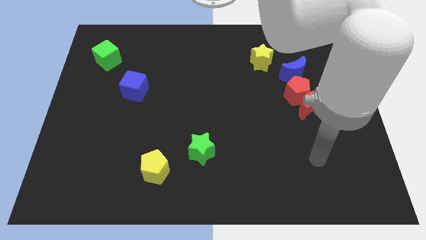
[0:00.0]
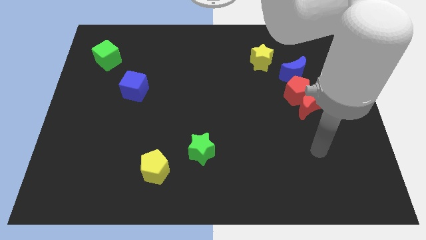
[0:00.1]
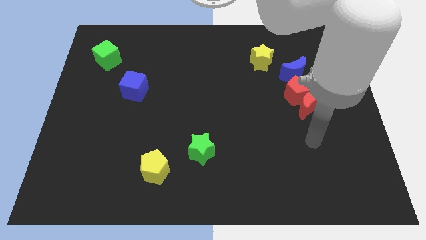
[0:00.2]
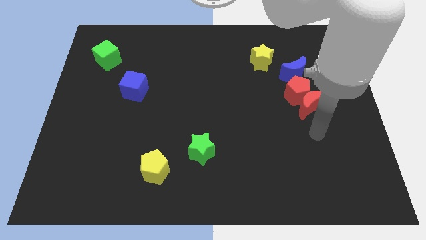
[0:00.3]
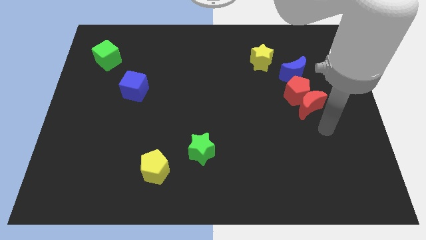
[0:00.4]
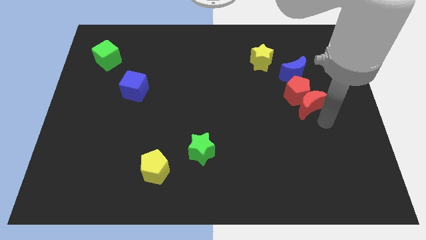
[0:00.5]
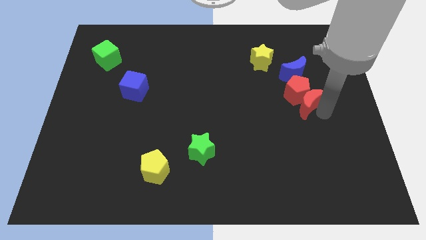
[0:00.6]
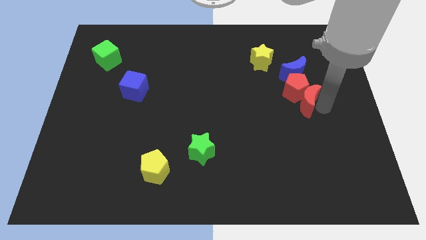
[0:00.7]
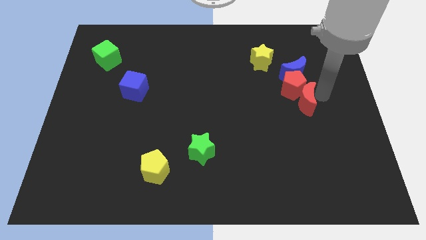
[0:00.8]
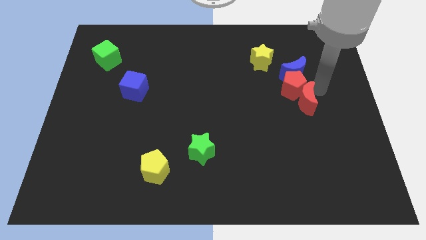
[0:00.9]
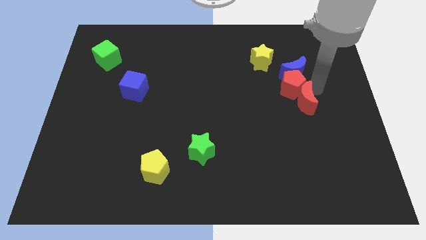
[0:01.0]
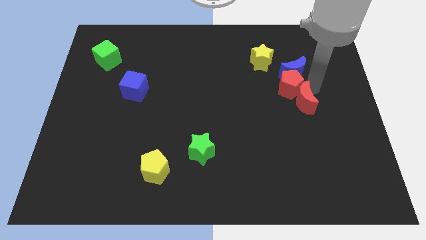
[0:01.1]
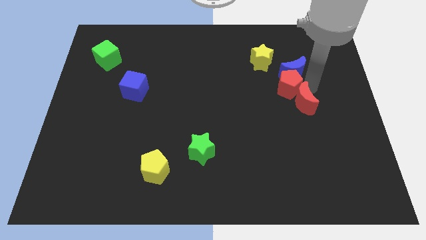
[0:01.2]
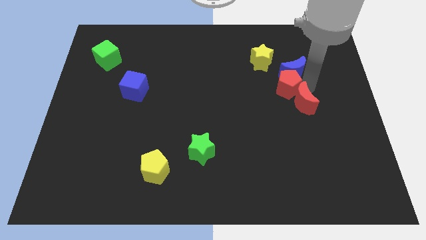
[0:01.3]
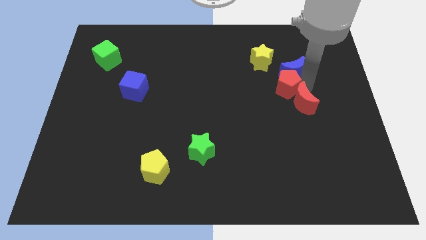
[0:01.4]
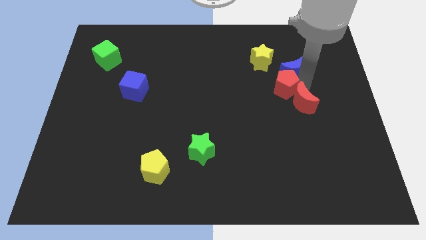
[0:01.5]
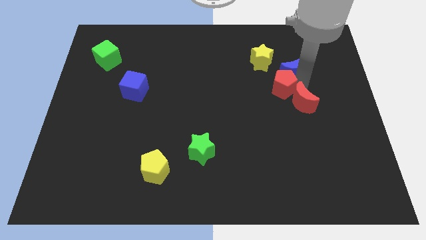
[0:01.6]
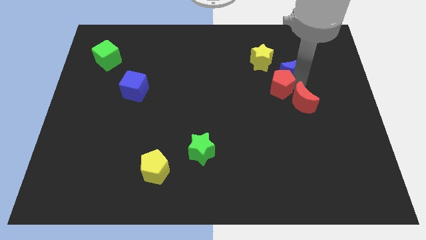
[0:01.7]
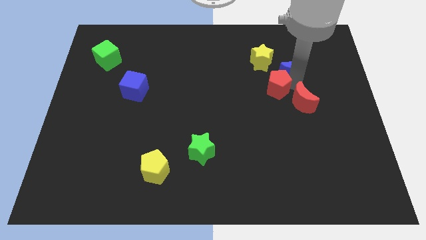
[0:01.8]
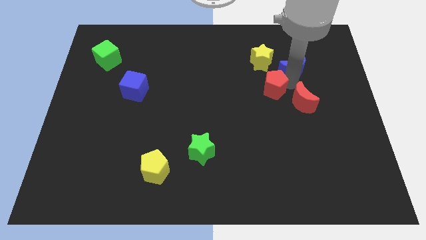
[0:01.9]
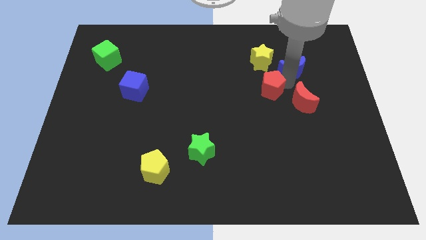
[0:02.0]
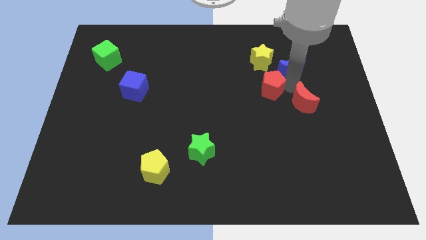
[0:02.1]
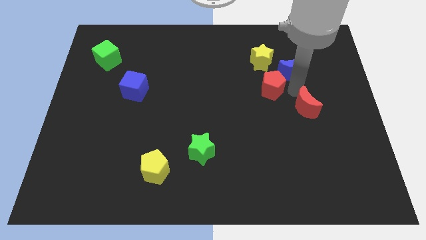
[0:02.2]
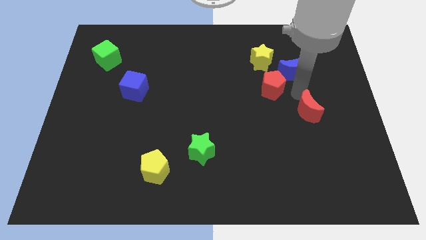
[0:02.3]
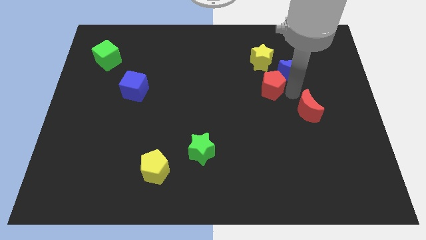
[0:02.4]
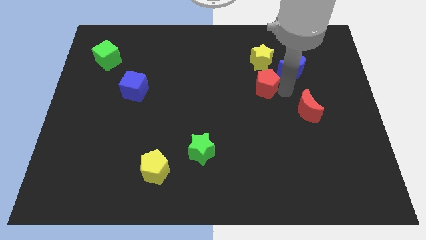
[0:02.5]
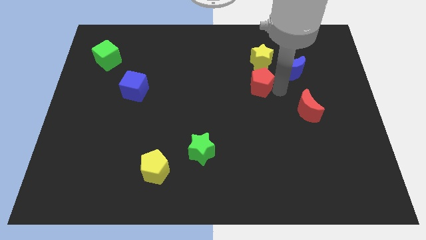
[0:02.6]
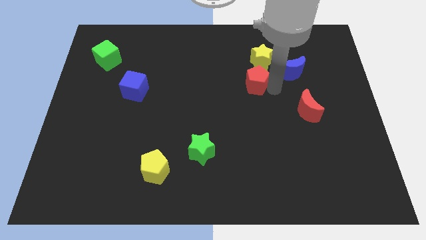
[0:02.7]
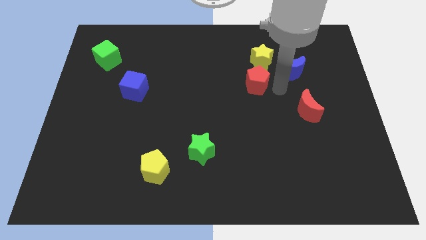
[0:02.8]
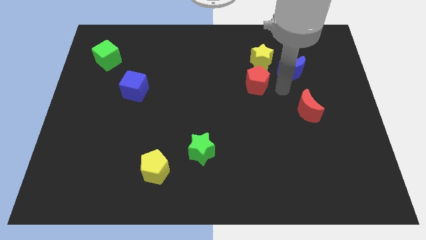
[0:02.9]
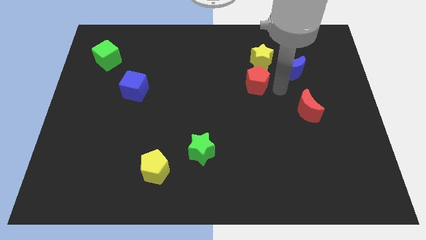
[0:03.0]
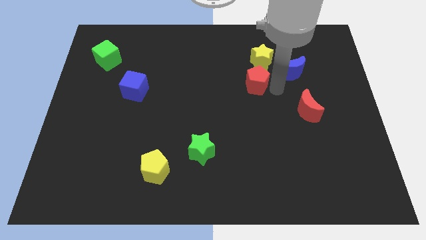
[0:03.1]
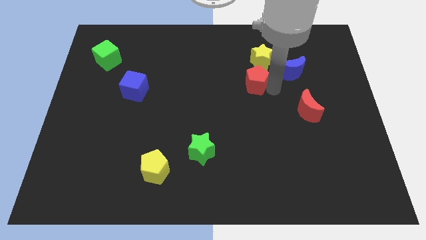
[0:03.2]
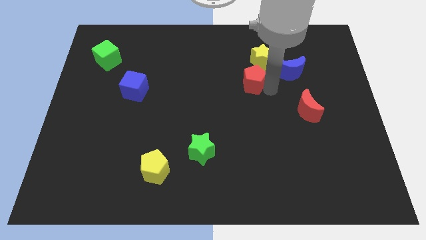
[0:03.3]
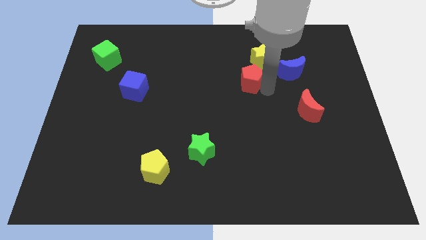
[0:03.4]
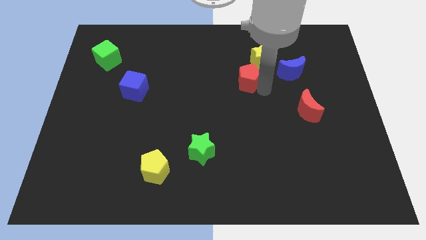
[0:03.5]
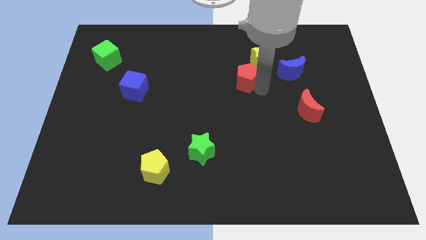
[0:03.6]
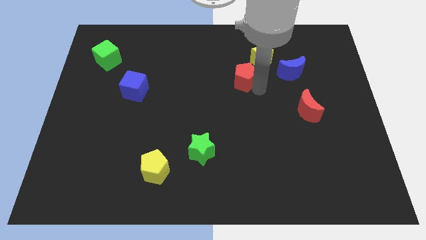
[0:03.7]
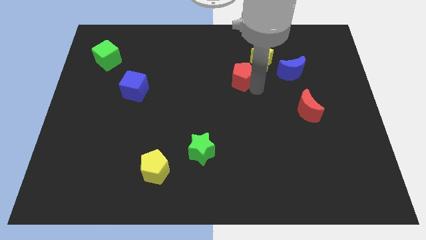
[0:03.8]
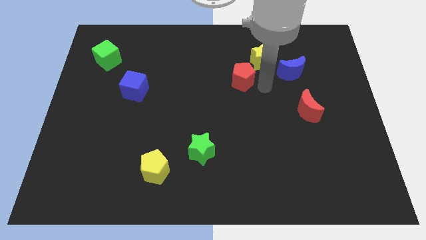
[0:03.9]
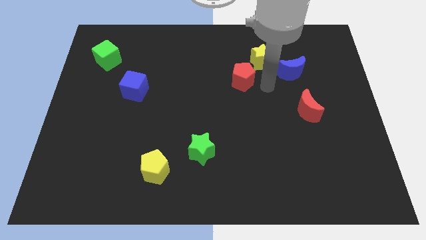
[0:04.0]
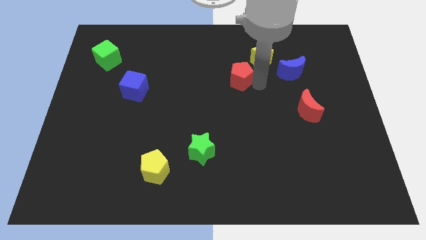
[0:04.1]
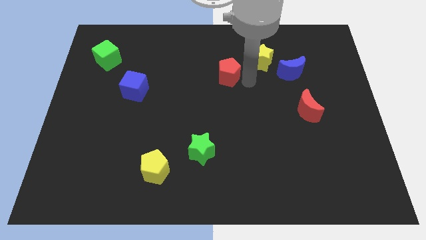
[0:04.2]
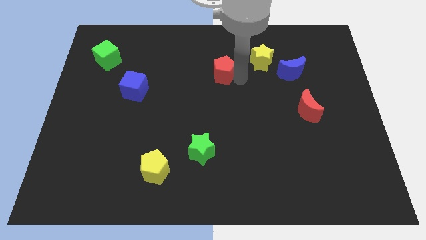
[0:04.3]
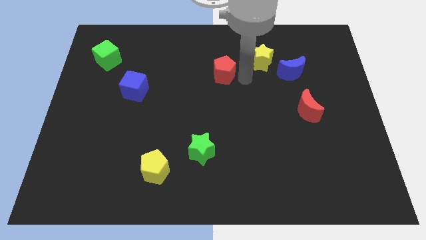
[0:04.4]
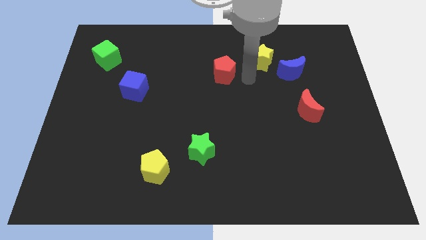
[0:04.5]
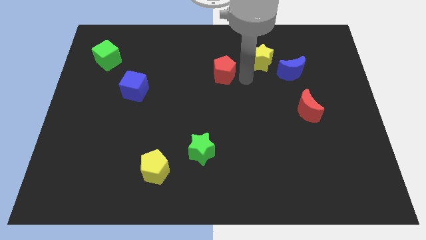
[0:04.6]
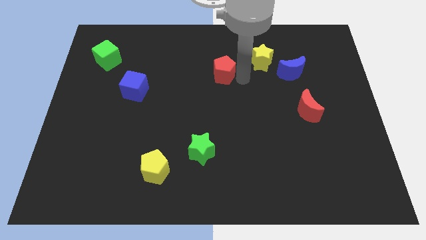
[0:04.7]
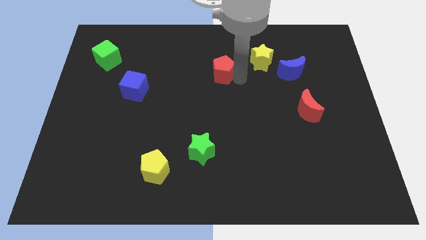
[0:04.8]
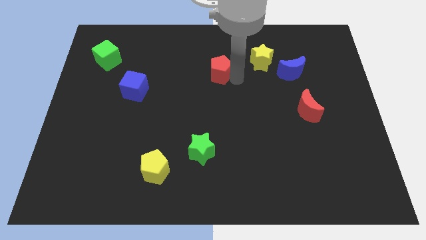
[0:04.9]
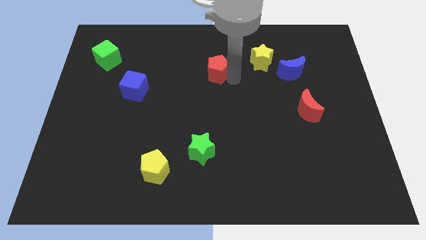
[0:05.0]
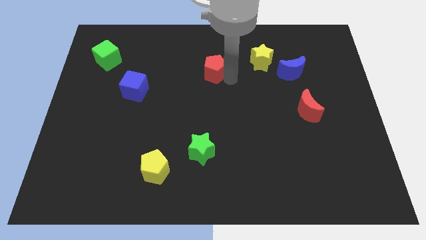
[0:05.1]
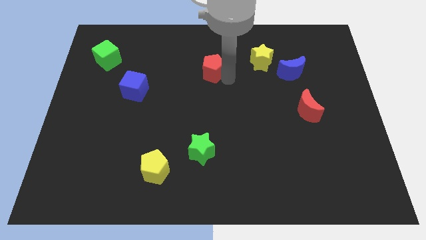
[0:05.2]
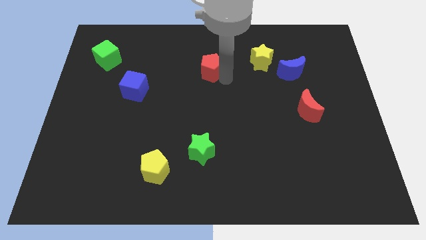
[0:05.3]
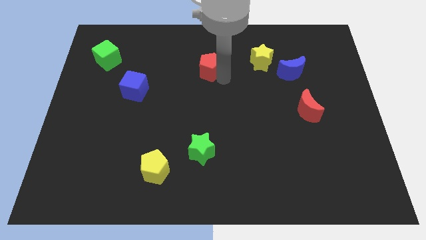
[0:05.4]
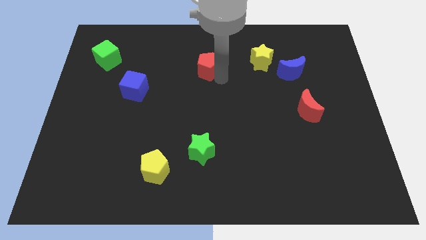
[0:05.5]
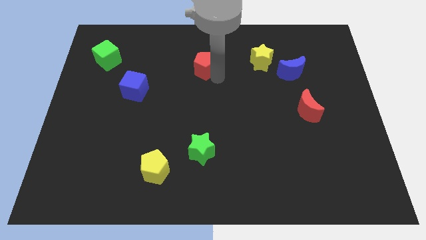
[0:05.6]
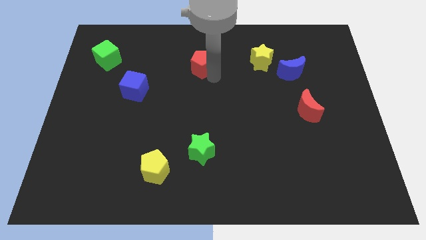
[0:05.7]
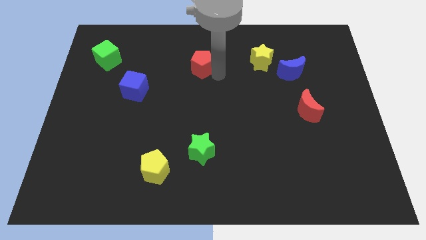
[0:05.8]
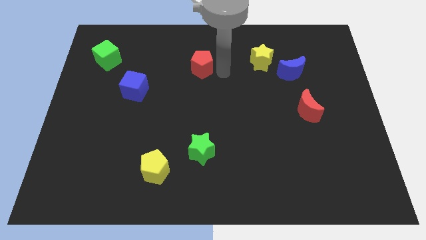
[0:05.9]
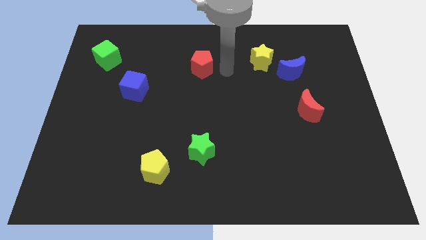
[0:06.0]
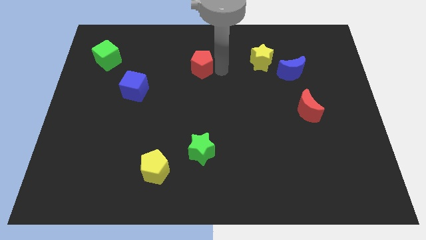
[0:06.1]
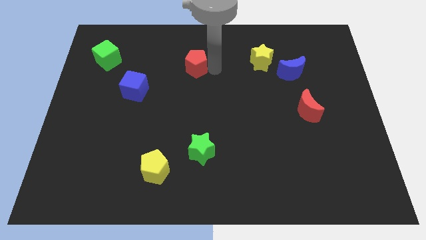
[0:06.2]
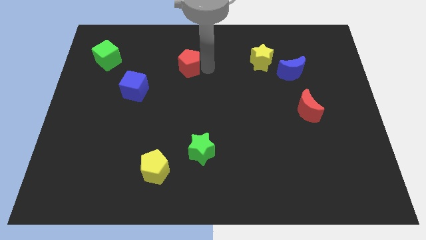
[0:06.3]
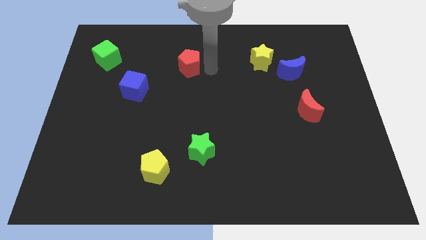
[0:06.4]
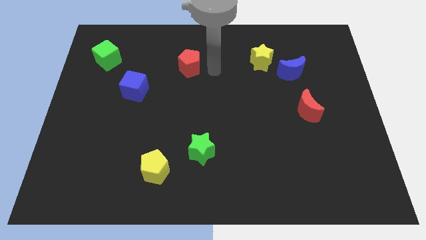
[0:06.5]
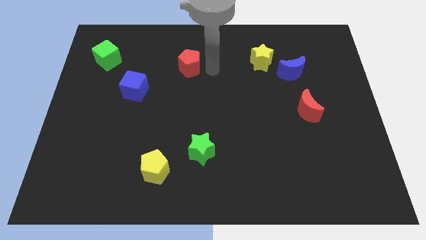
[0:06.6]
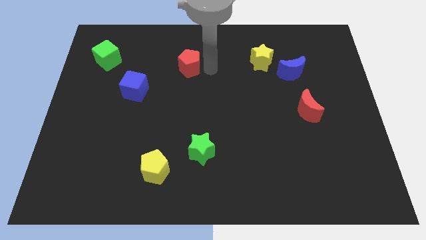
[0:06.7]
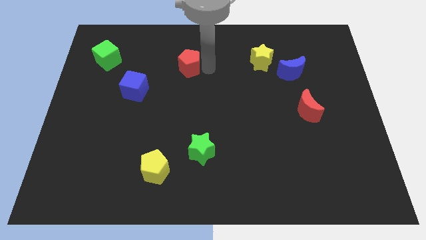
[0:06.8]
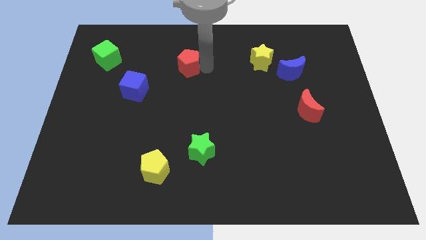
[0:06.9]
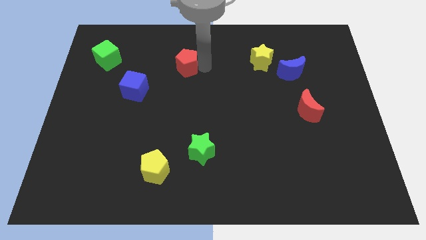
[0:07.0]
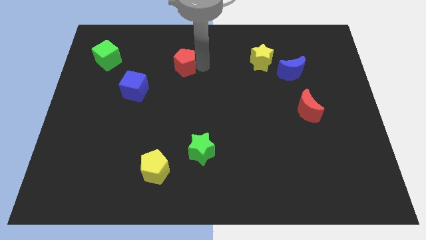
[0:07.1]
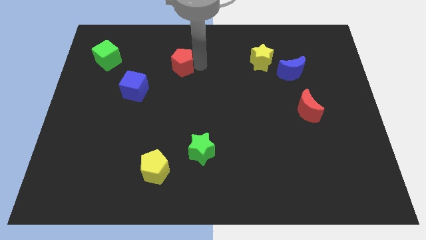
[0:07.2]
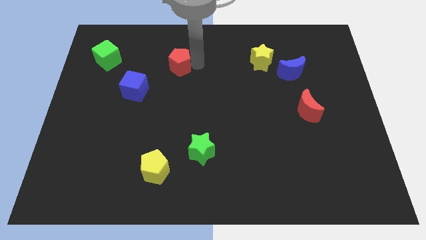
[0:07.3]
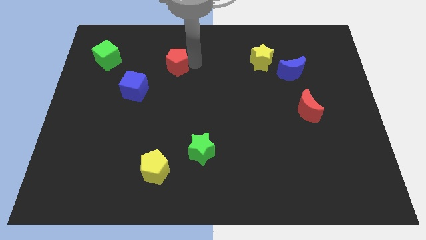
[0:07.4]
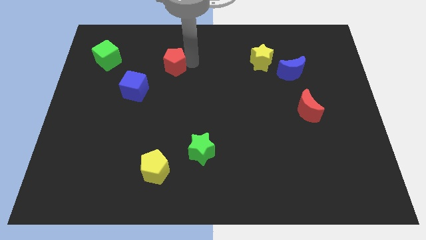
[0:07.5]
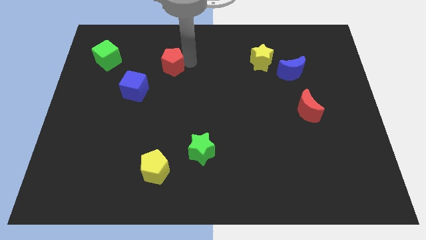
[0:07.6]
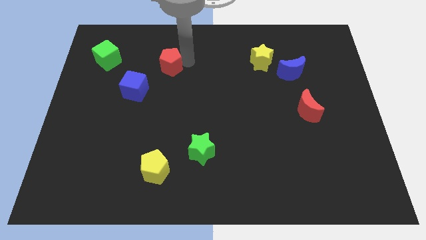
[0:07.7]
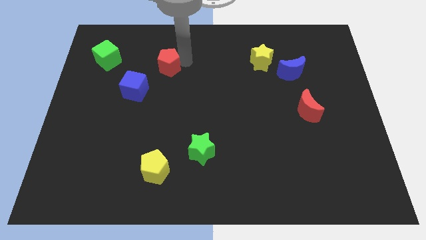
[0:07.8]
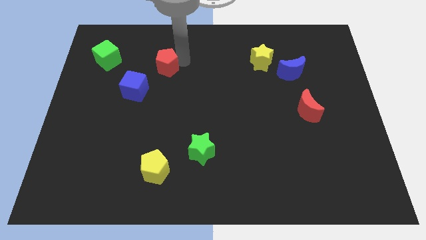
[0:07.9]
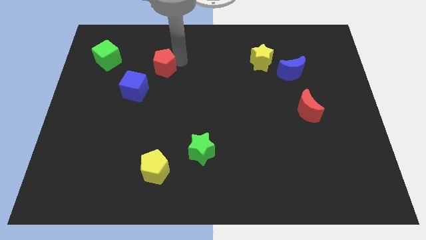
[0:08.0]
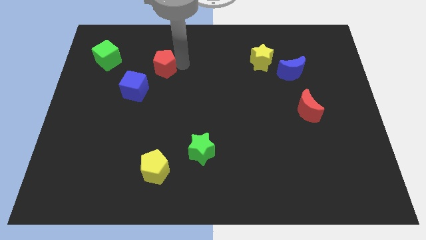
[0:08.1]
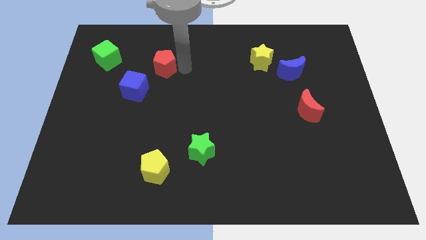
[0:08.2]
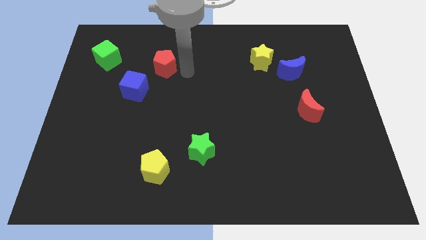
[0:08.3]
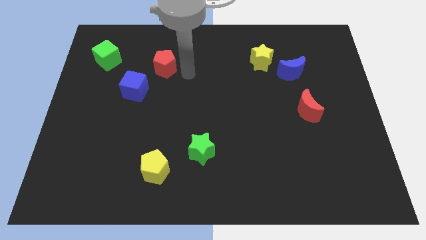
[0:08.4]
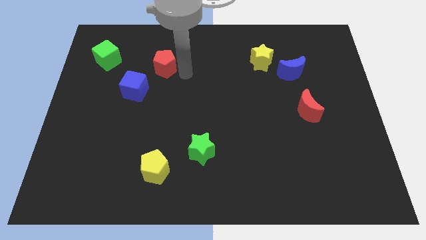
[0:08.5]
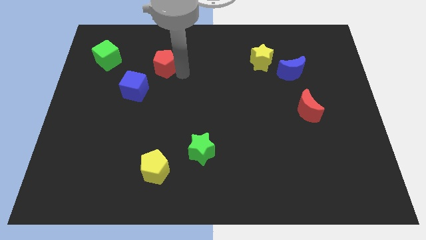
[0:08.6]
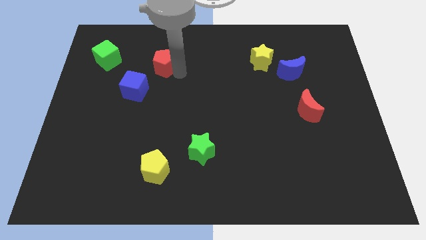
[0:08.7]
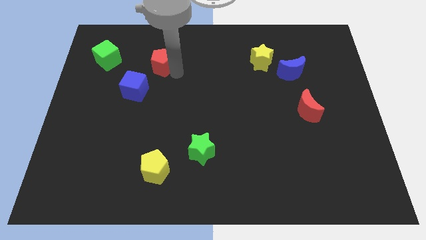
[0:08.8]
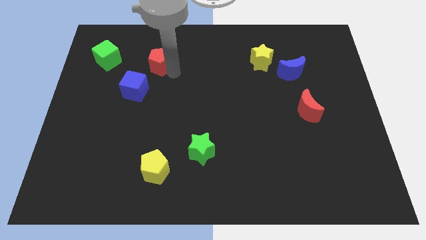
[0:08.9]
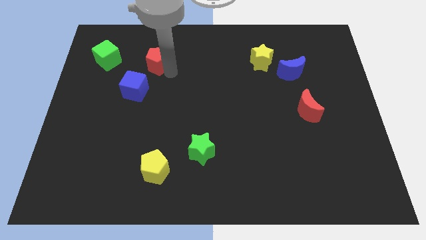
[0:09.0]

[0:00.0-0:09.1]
slide the red pentagon above the blue cube
